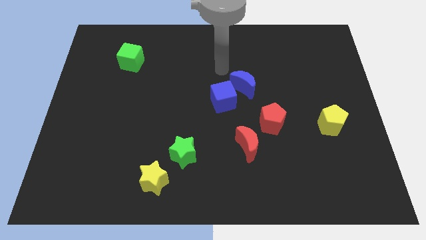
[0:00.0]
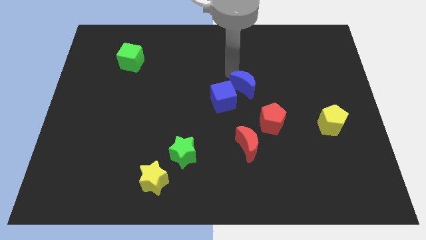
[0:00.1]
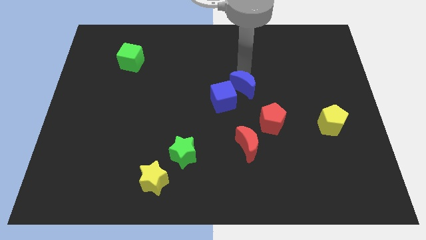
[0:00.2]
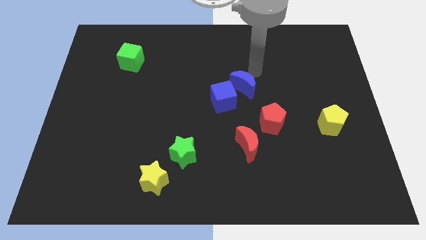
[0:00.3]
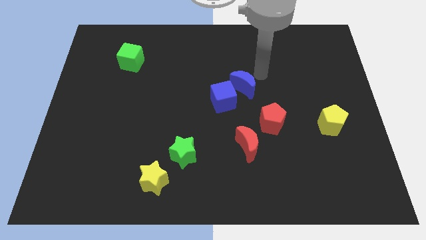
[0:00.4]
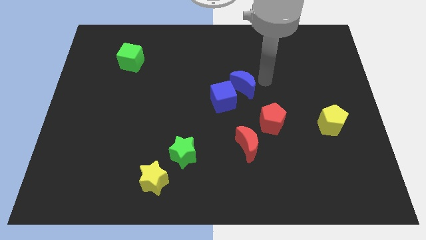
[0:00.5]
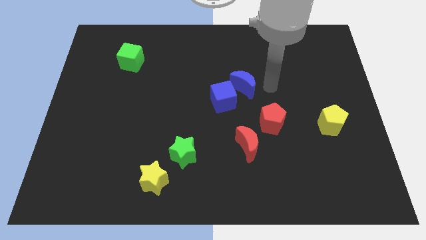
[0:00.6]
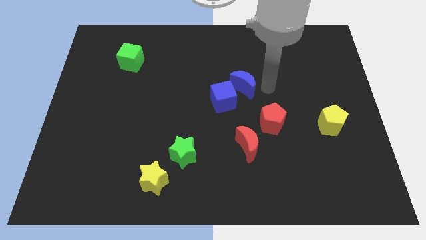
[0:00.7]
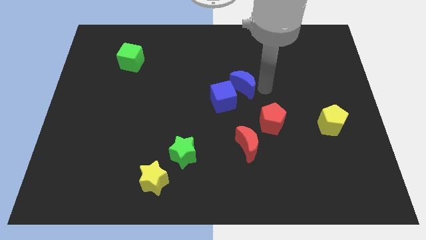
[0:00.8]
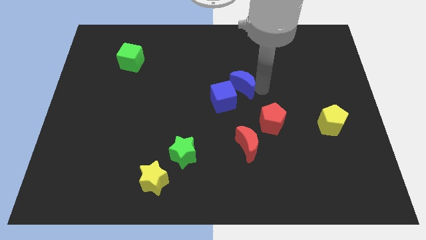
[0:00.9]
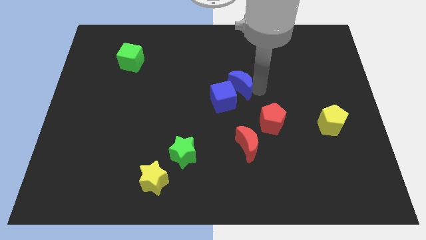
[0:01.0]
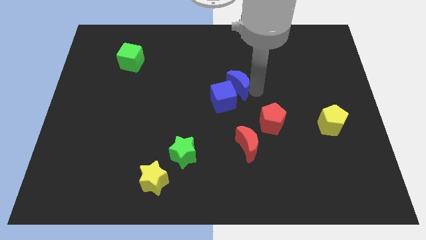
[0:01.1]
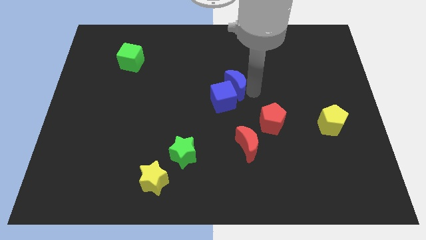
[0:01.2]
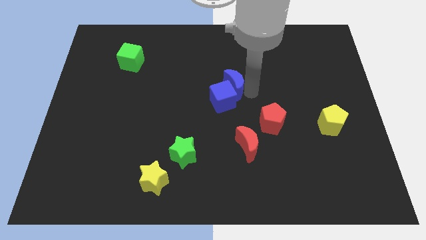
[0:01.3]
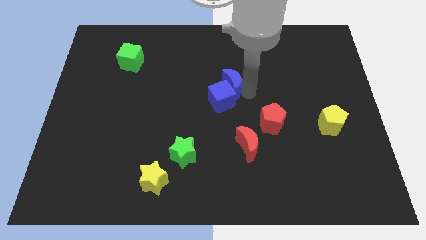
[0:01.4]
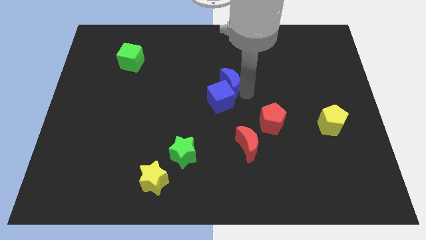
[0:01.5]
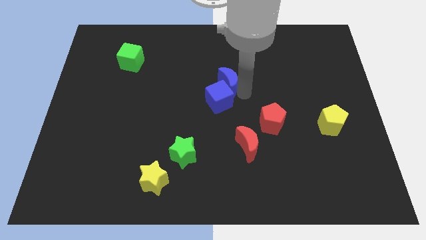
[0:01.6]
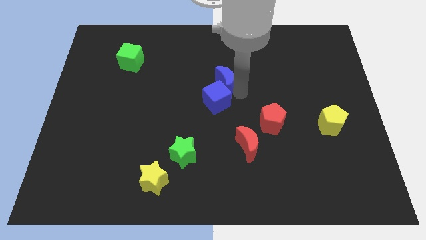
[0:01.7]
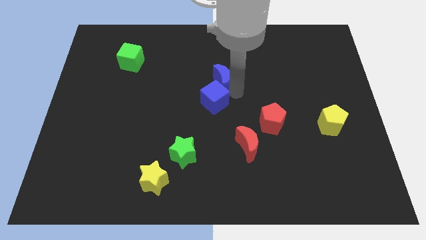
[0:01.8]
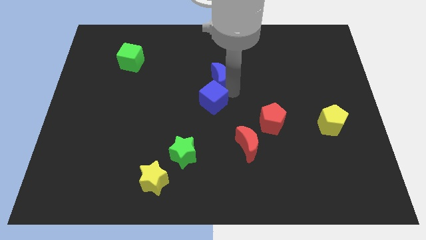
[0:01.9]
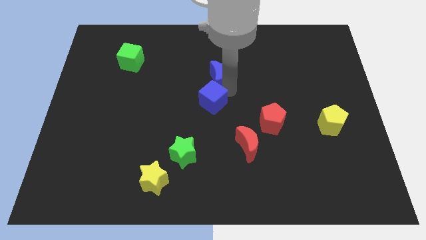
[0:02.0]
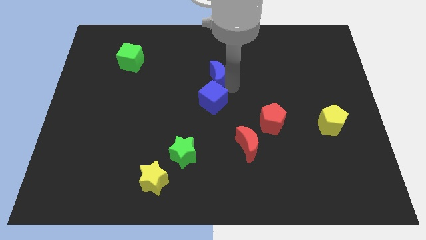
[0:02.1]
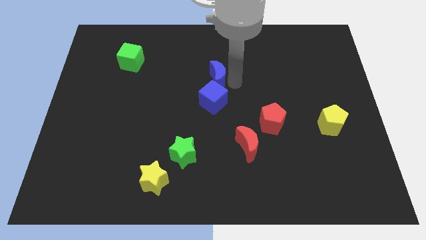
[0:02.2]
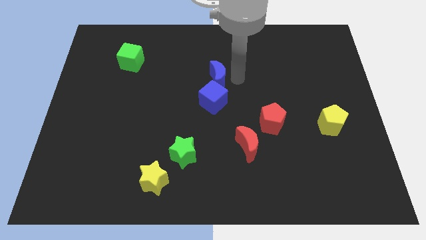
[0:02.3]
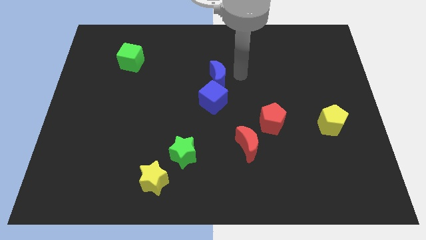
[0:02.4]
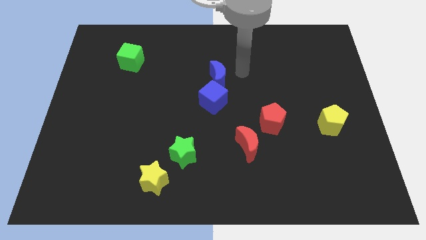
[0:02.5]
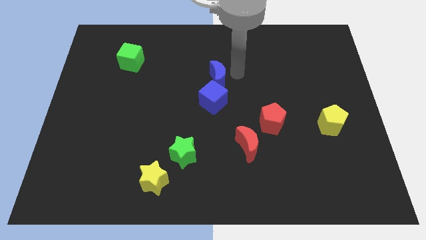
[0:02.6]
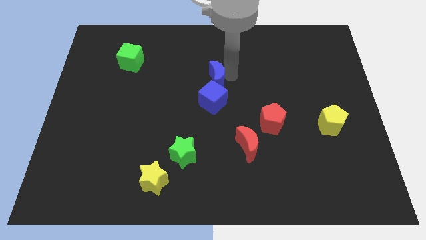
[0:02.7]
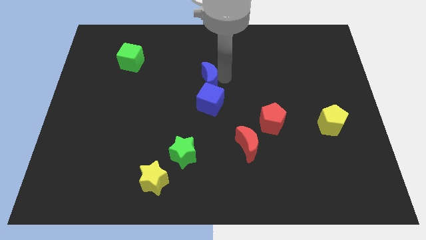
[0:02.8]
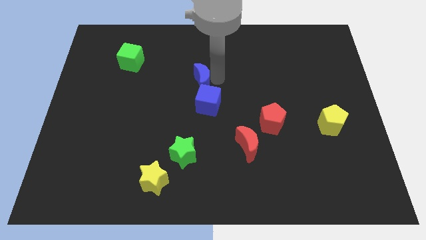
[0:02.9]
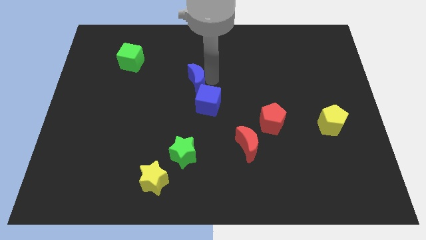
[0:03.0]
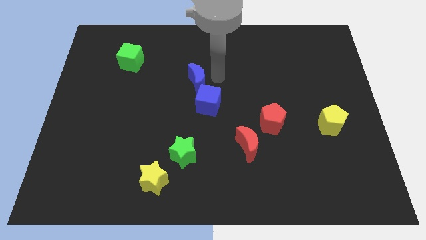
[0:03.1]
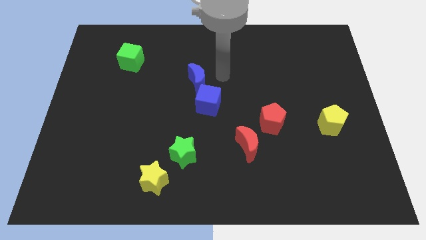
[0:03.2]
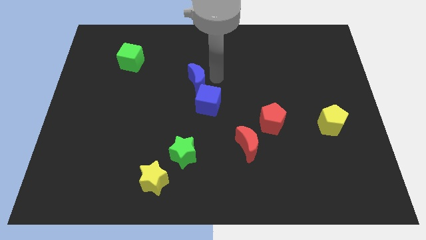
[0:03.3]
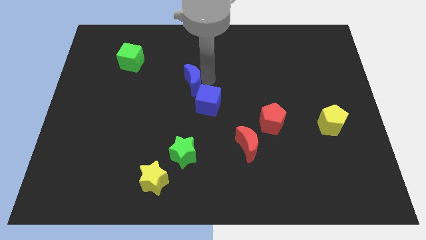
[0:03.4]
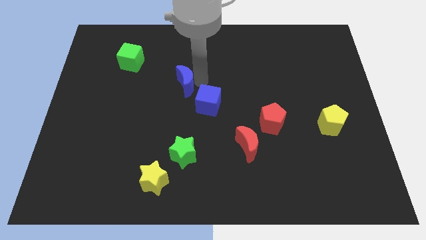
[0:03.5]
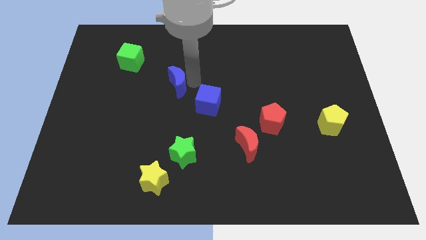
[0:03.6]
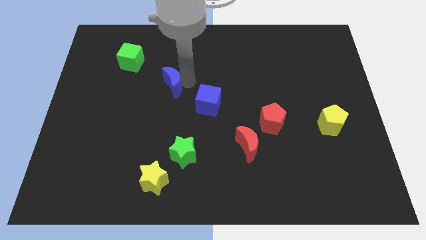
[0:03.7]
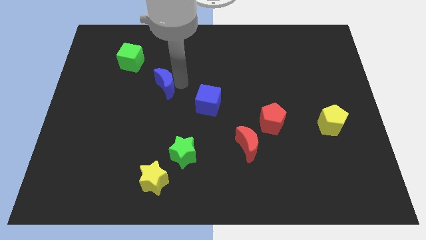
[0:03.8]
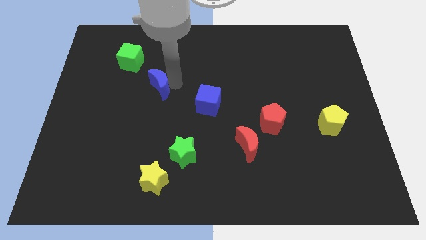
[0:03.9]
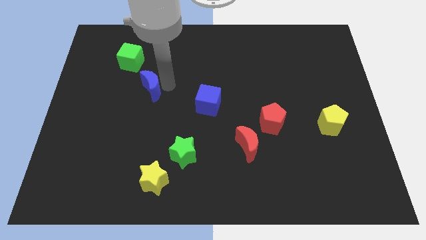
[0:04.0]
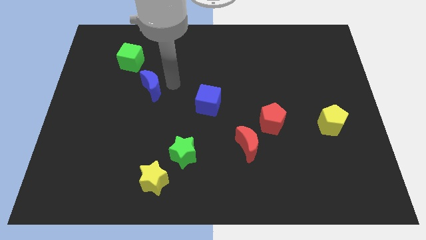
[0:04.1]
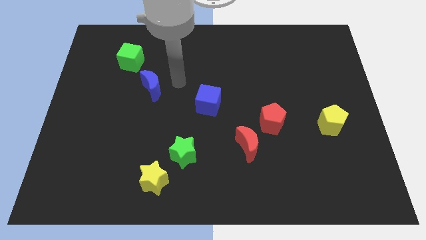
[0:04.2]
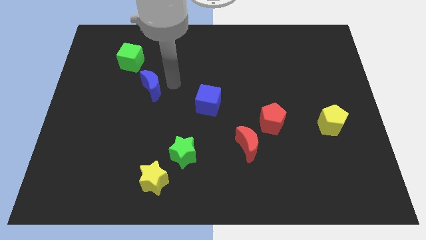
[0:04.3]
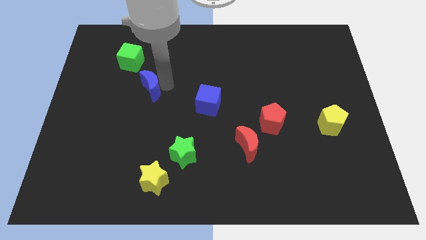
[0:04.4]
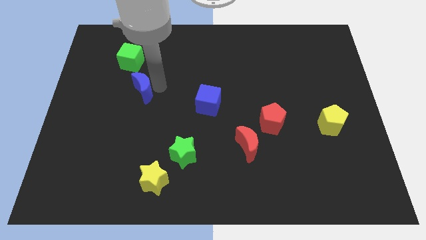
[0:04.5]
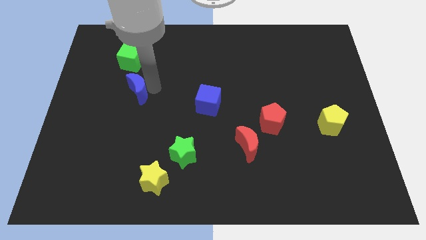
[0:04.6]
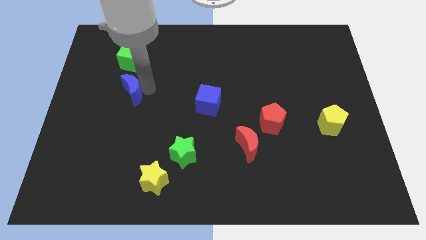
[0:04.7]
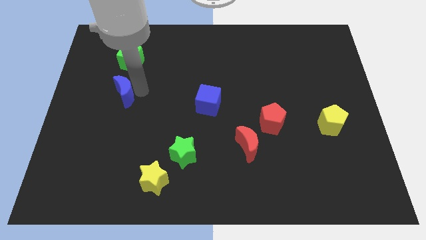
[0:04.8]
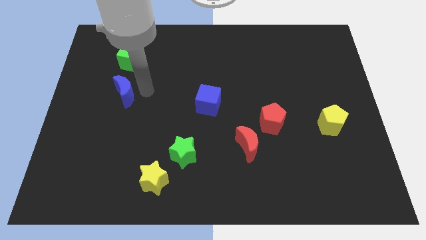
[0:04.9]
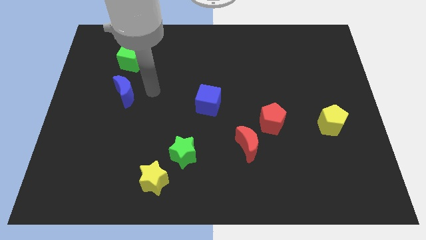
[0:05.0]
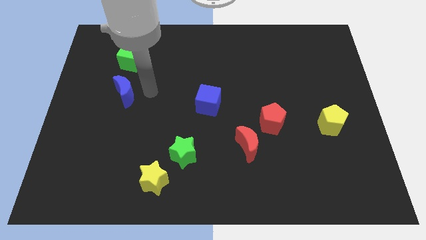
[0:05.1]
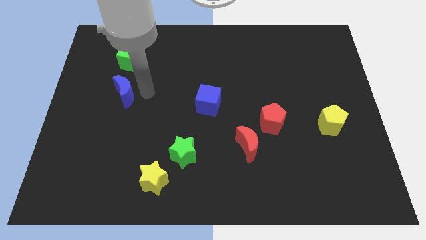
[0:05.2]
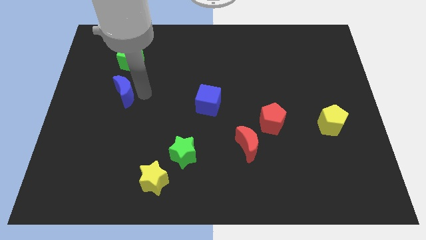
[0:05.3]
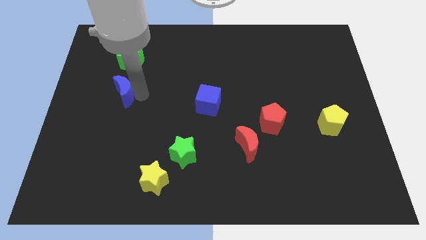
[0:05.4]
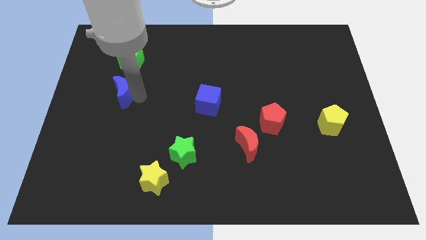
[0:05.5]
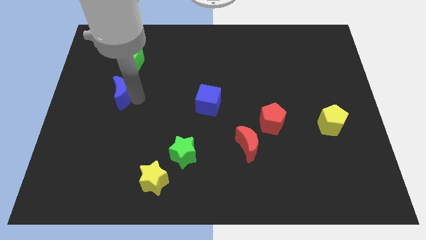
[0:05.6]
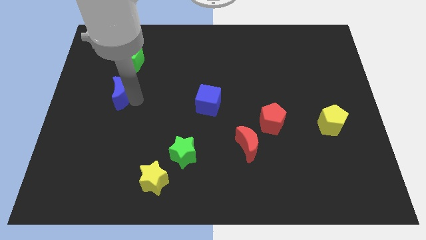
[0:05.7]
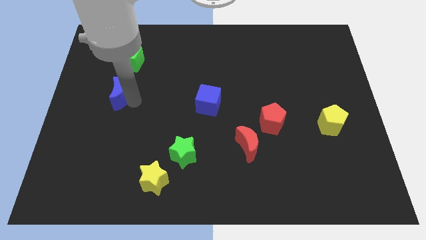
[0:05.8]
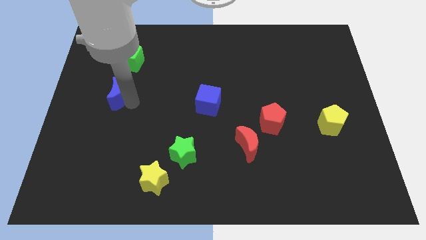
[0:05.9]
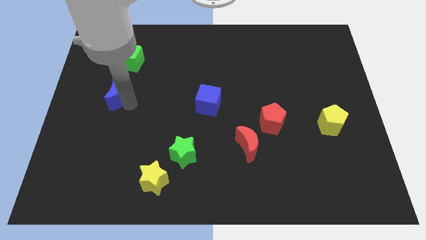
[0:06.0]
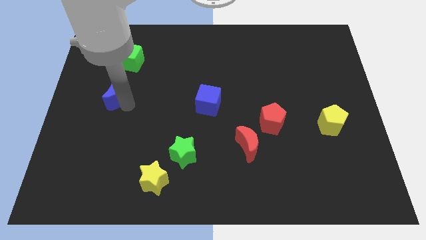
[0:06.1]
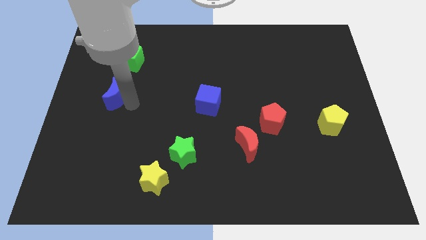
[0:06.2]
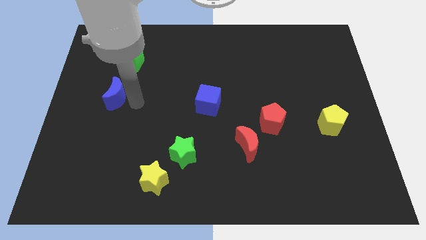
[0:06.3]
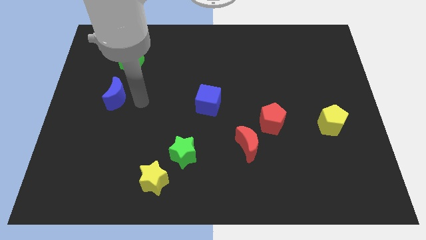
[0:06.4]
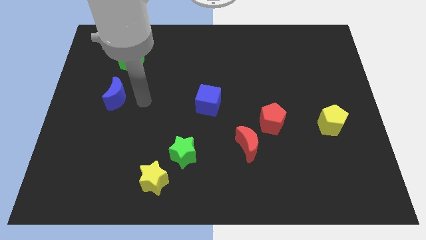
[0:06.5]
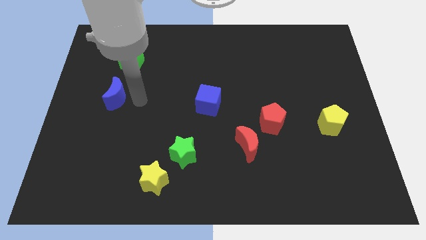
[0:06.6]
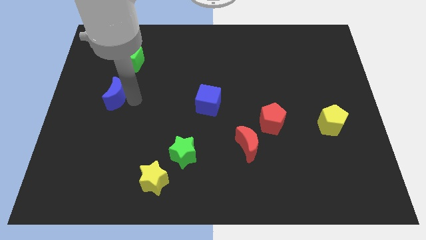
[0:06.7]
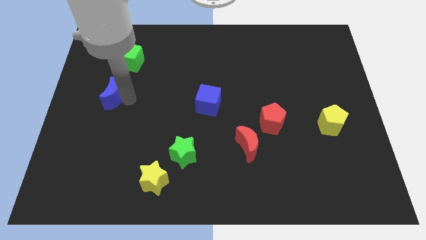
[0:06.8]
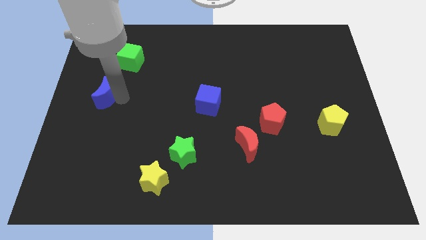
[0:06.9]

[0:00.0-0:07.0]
move the blue moon to the left side
